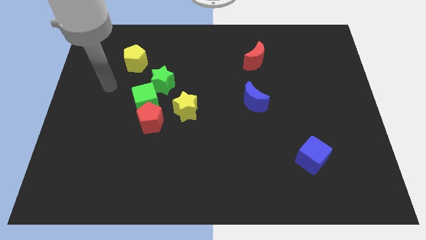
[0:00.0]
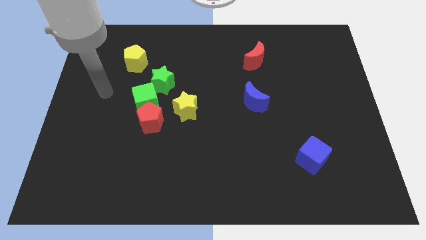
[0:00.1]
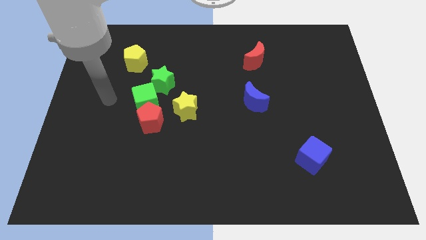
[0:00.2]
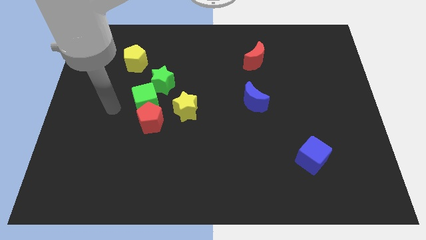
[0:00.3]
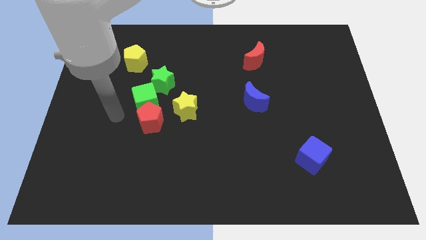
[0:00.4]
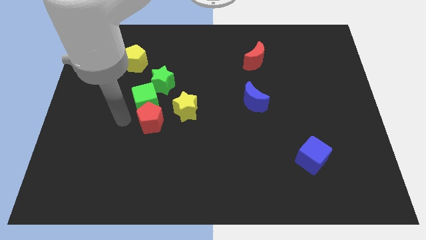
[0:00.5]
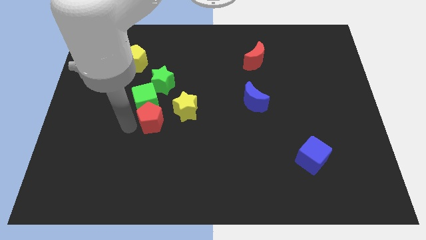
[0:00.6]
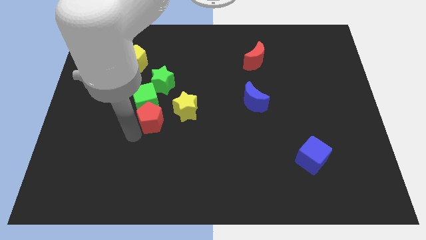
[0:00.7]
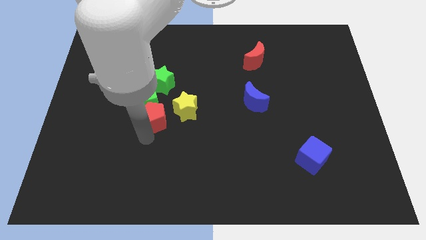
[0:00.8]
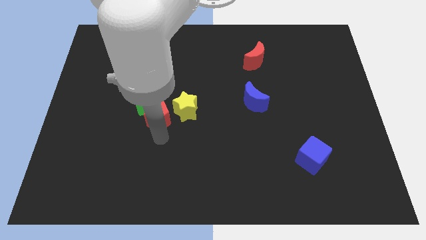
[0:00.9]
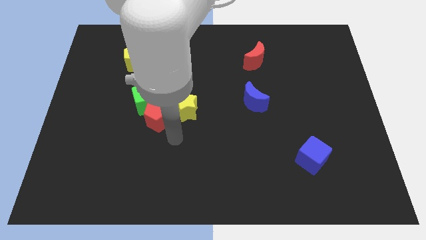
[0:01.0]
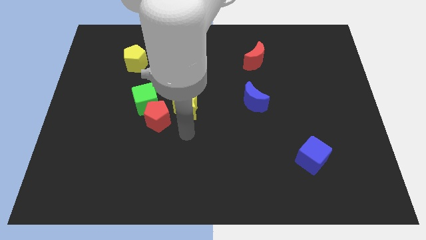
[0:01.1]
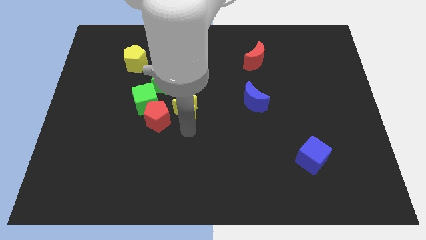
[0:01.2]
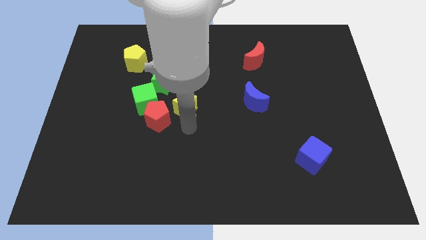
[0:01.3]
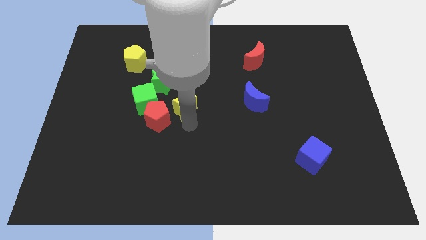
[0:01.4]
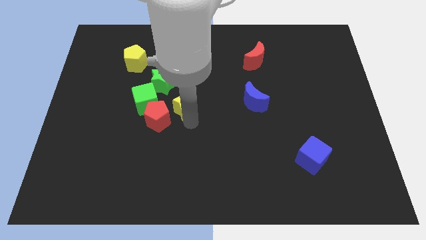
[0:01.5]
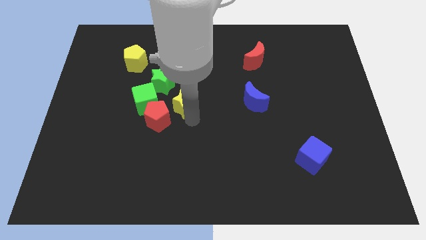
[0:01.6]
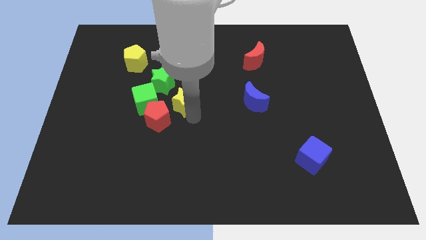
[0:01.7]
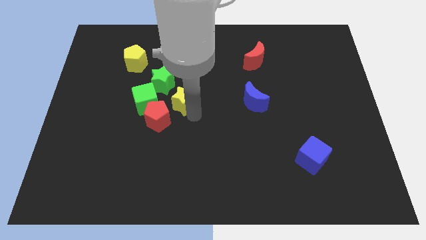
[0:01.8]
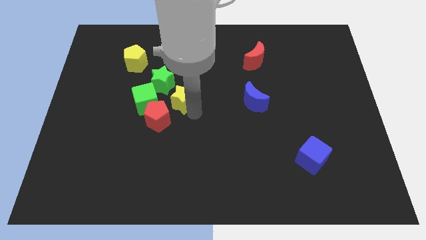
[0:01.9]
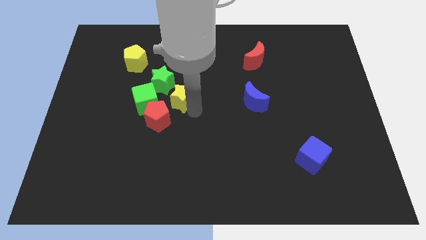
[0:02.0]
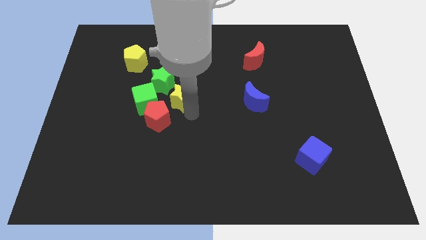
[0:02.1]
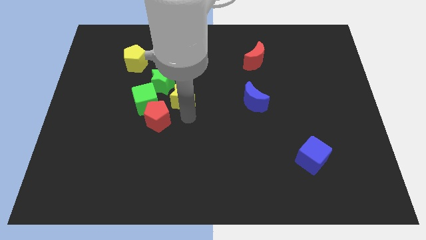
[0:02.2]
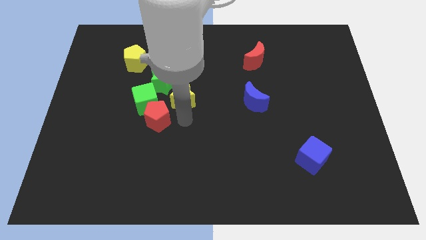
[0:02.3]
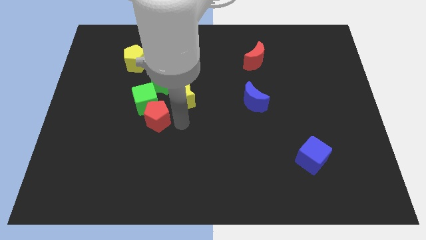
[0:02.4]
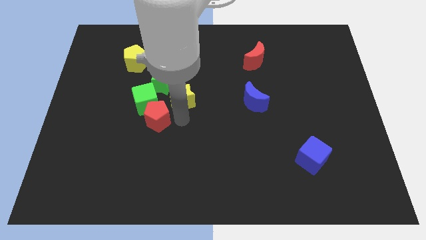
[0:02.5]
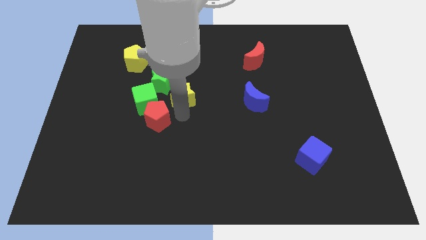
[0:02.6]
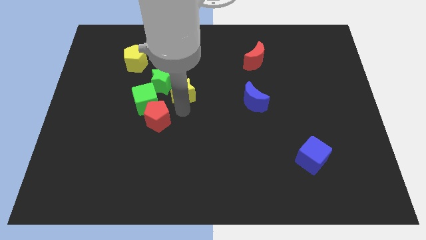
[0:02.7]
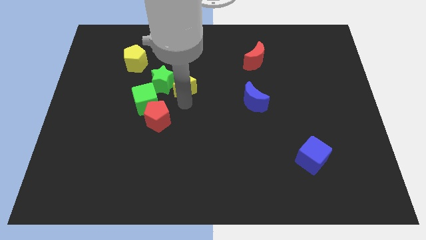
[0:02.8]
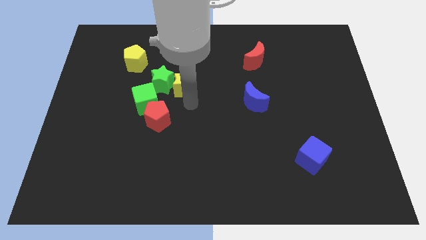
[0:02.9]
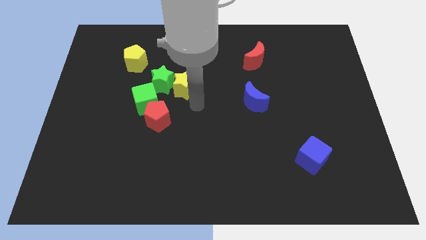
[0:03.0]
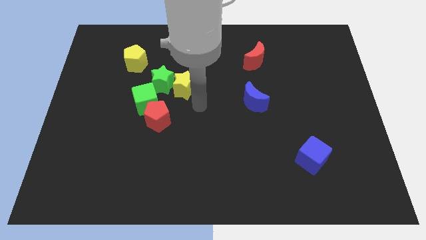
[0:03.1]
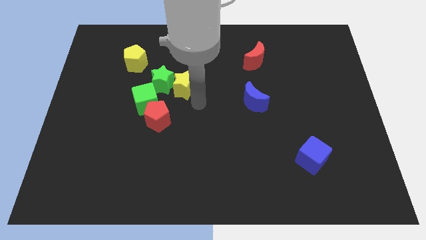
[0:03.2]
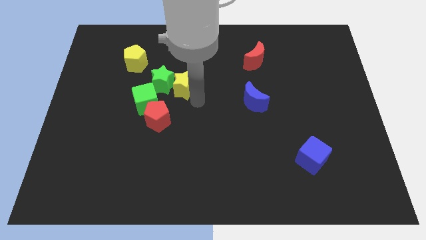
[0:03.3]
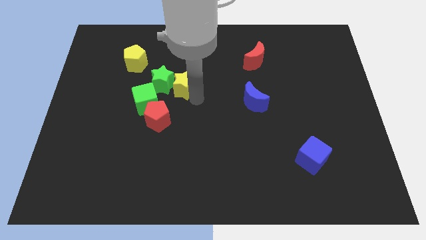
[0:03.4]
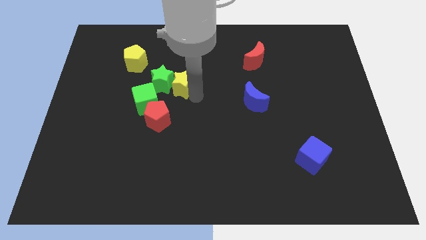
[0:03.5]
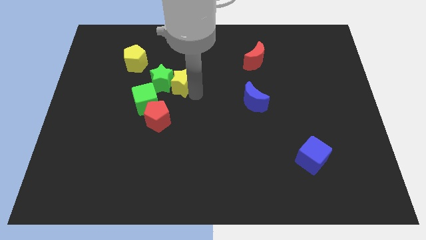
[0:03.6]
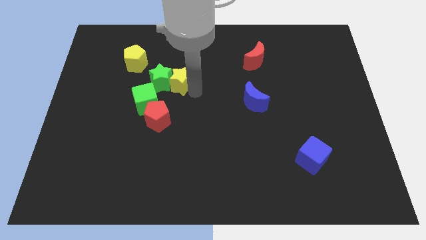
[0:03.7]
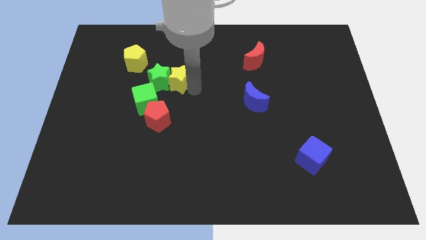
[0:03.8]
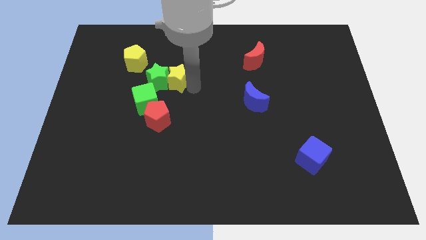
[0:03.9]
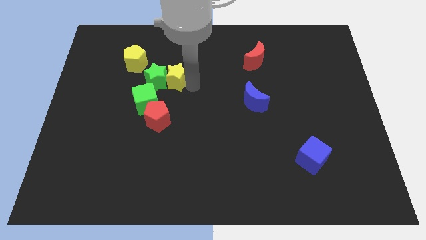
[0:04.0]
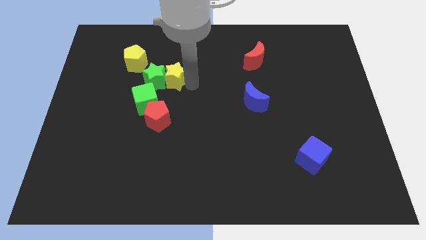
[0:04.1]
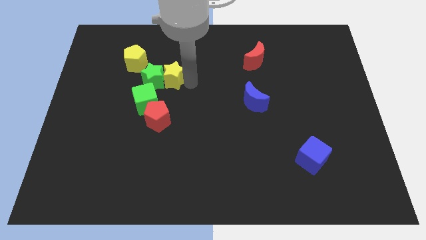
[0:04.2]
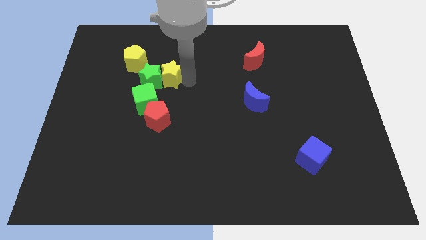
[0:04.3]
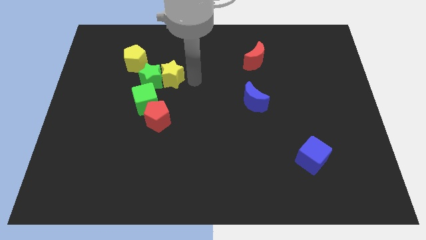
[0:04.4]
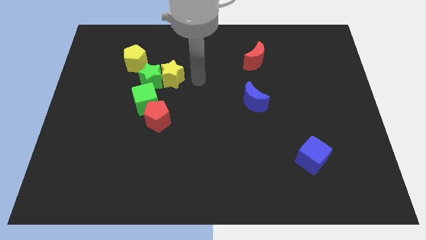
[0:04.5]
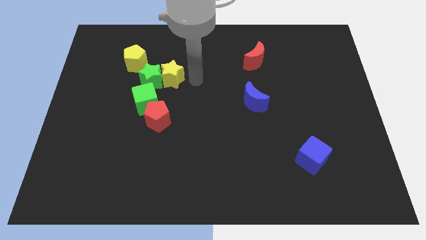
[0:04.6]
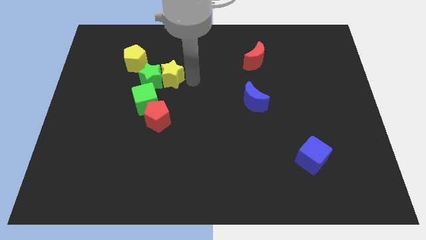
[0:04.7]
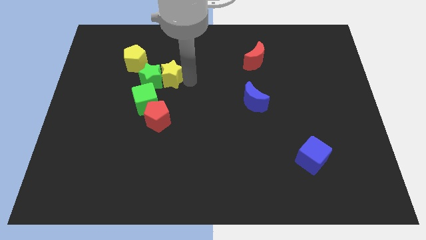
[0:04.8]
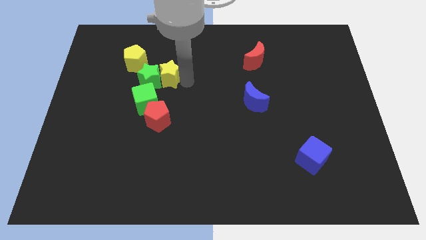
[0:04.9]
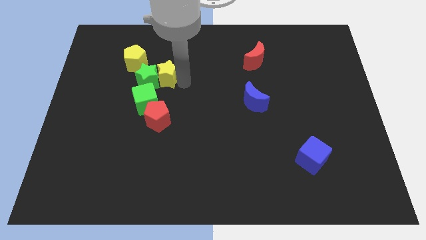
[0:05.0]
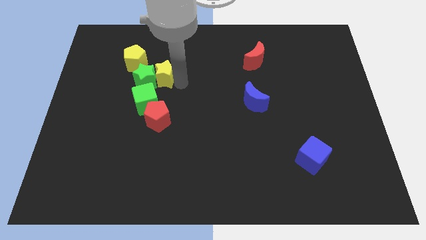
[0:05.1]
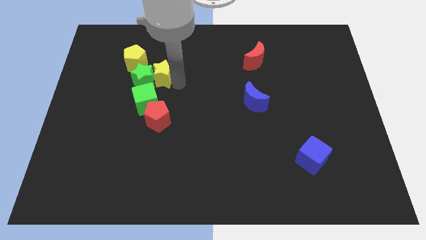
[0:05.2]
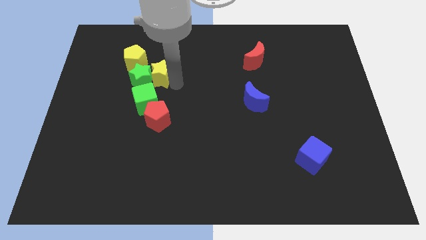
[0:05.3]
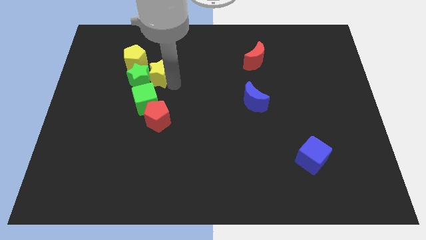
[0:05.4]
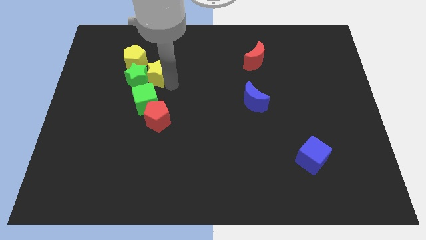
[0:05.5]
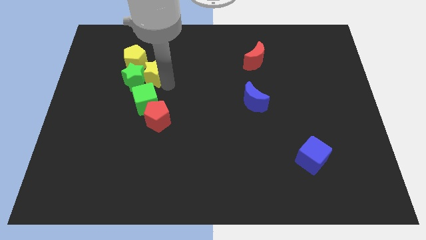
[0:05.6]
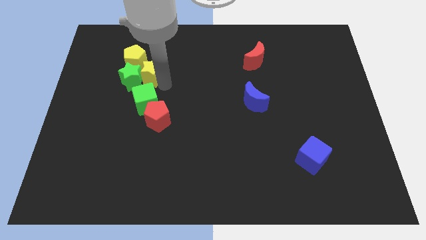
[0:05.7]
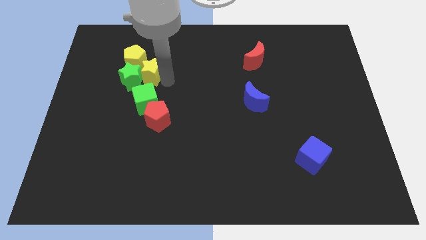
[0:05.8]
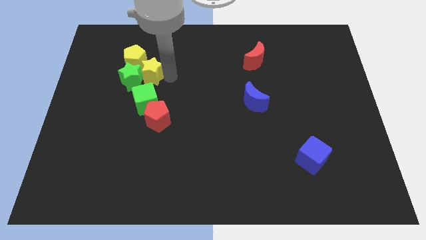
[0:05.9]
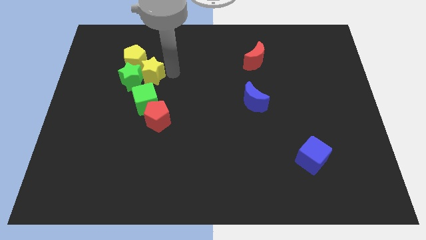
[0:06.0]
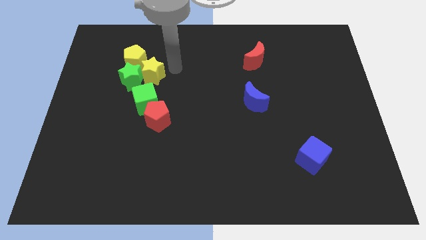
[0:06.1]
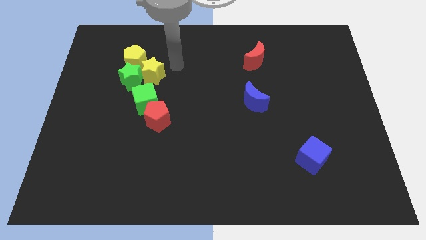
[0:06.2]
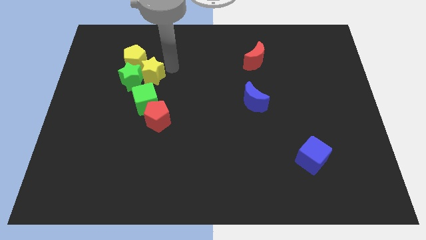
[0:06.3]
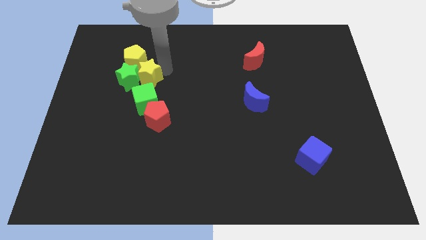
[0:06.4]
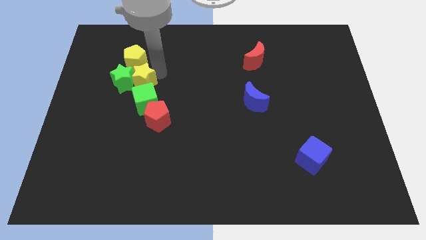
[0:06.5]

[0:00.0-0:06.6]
push the yellow star to the top left side of the green cube
